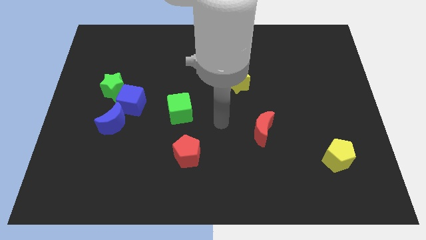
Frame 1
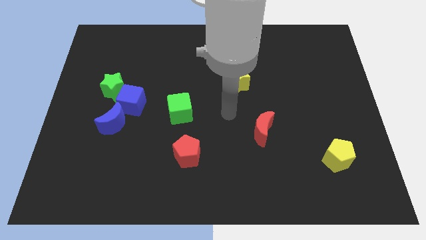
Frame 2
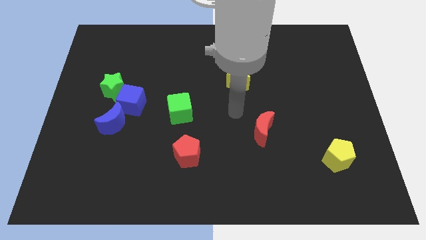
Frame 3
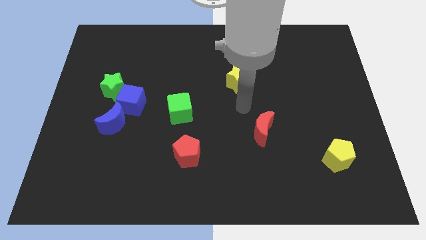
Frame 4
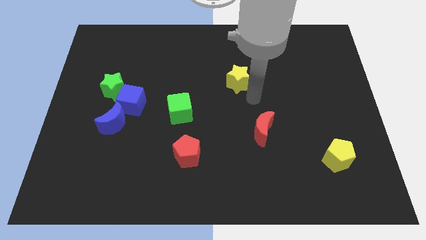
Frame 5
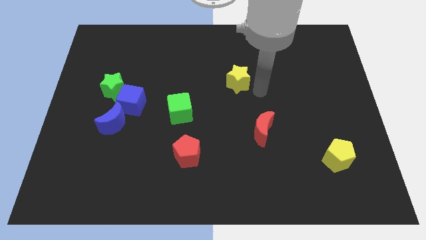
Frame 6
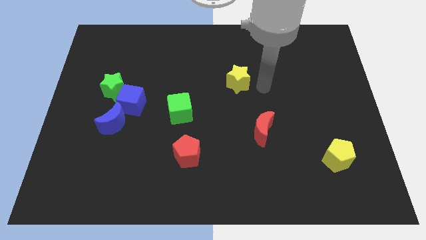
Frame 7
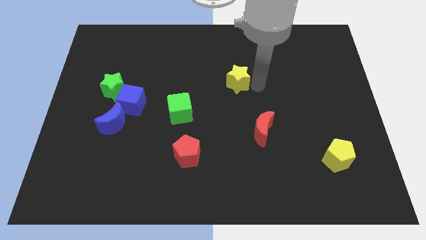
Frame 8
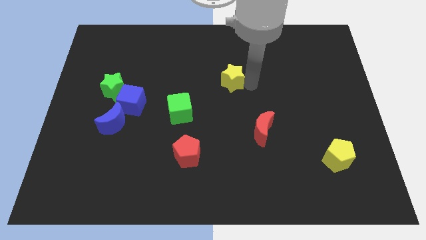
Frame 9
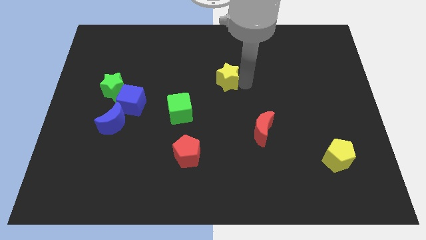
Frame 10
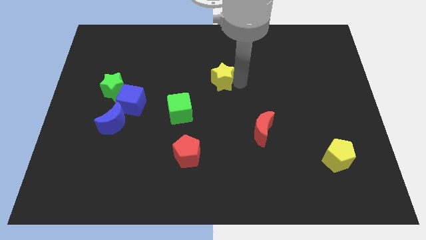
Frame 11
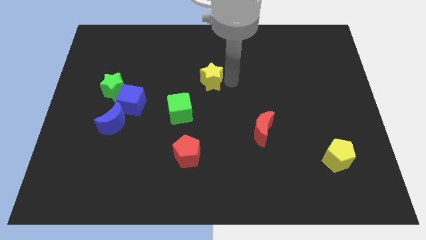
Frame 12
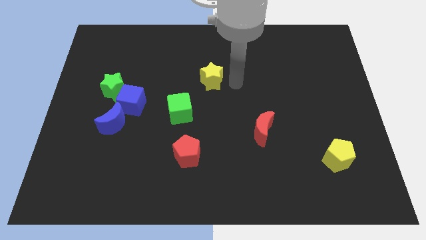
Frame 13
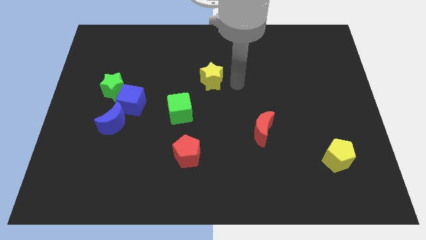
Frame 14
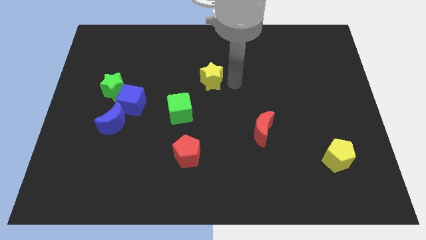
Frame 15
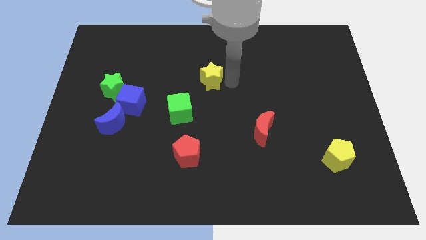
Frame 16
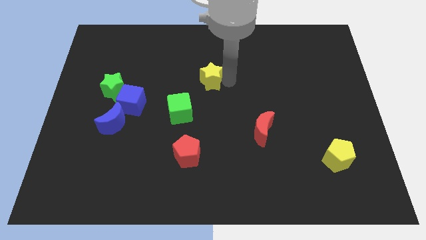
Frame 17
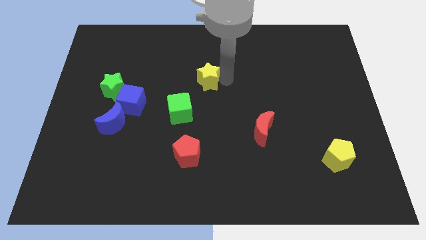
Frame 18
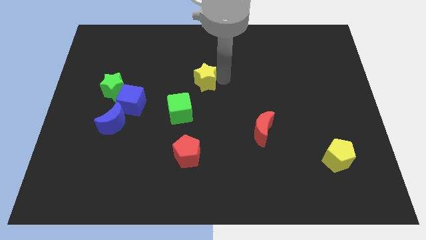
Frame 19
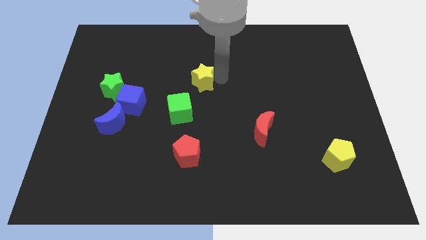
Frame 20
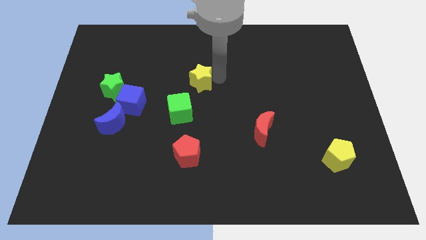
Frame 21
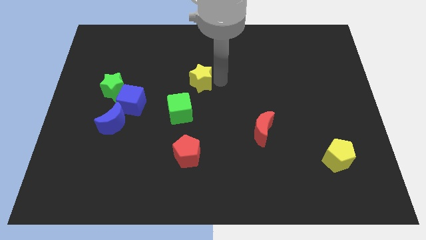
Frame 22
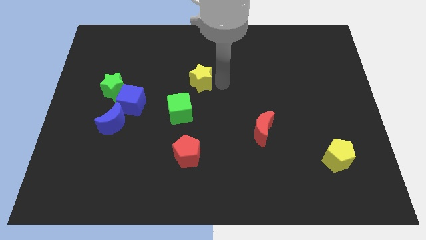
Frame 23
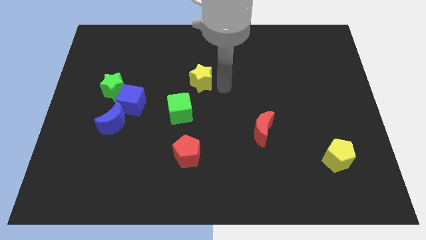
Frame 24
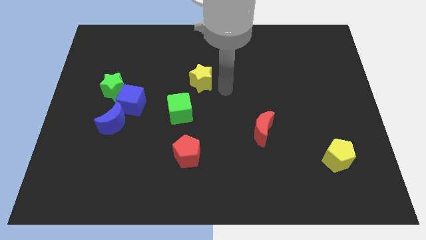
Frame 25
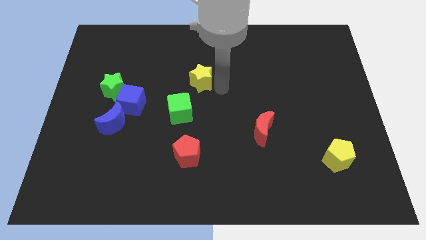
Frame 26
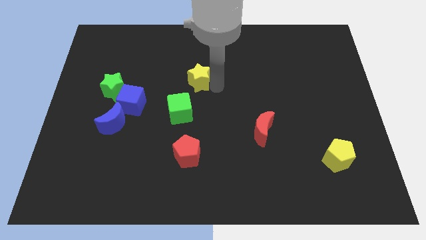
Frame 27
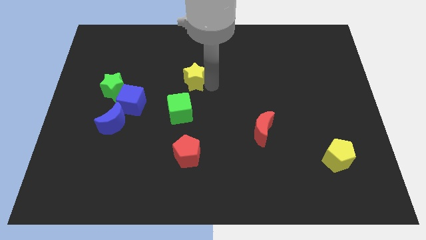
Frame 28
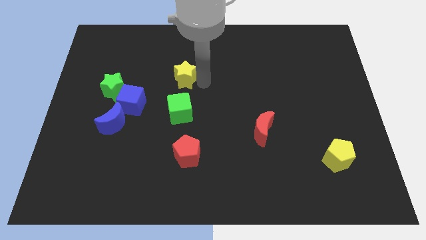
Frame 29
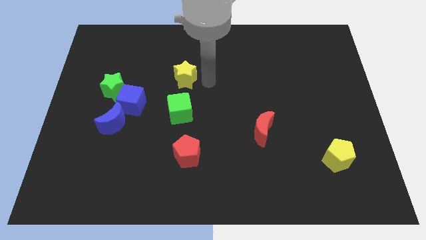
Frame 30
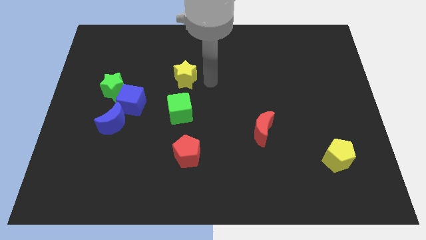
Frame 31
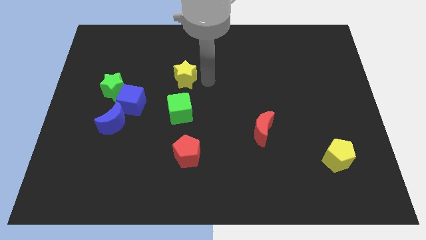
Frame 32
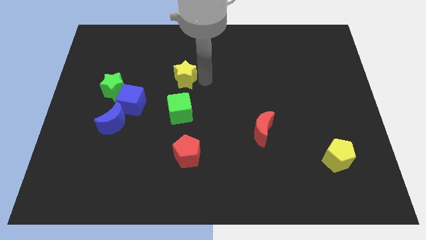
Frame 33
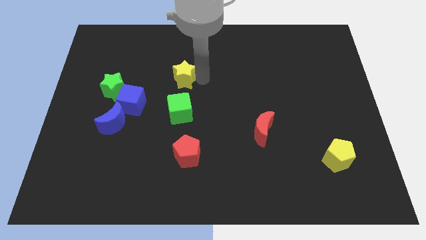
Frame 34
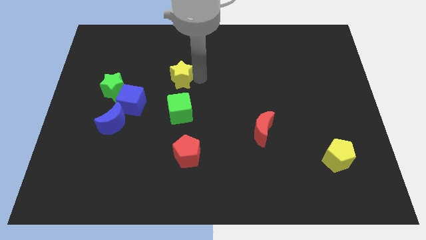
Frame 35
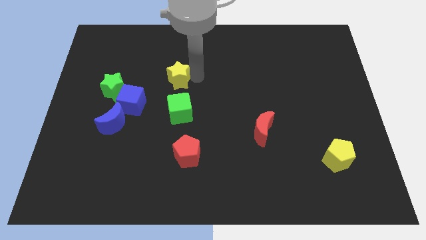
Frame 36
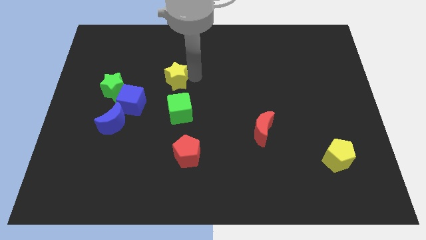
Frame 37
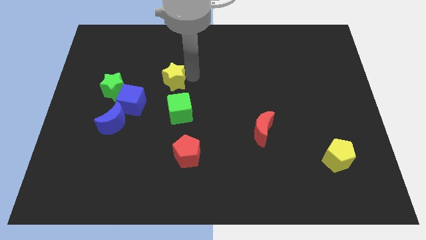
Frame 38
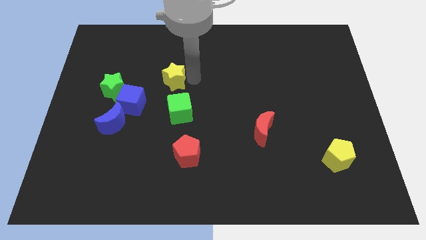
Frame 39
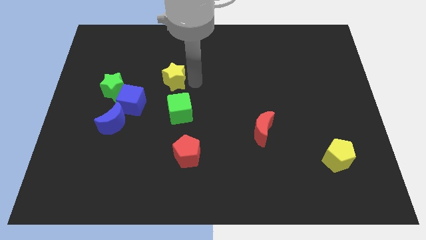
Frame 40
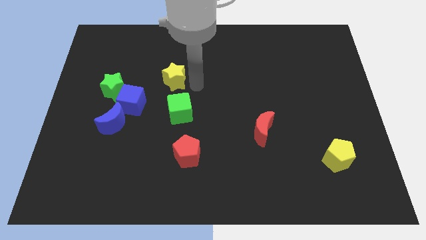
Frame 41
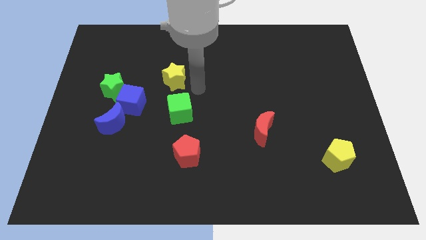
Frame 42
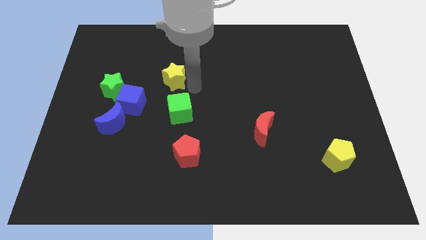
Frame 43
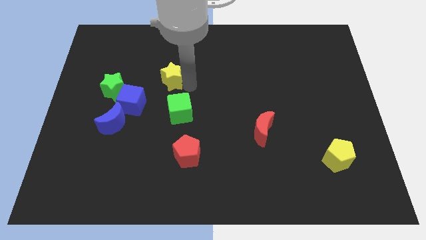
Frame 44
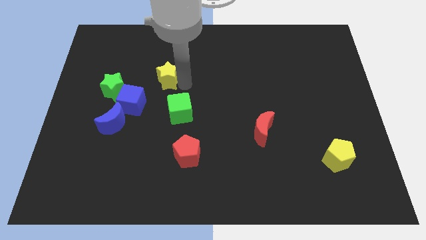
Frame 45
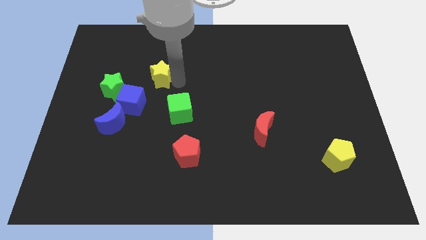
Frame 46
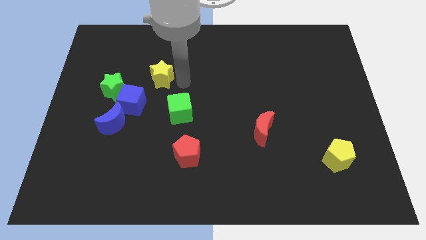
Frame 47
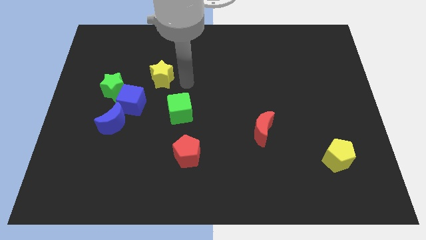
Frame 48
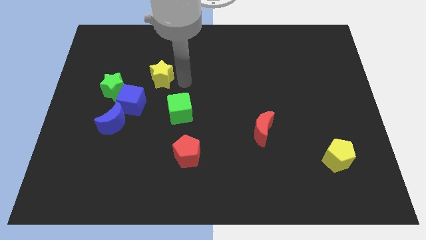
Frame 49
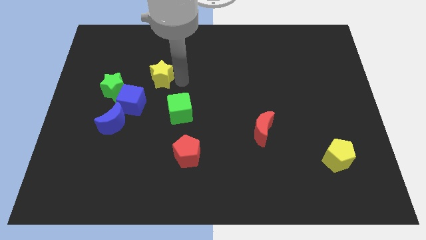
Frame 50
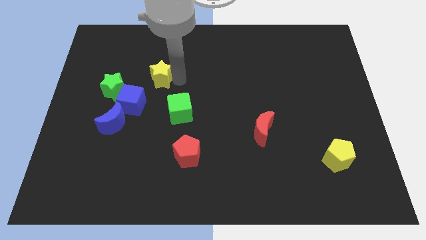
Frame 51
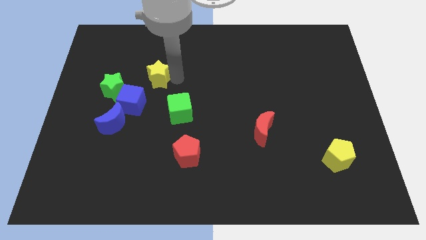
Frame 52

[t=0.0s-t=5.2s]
move the yellow star to the top right of the green star

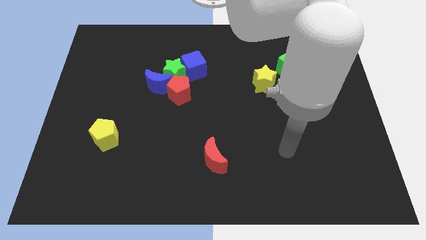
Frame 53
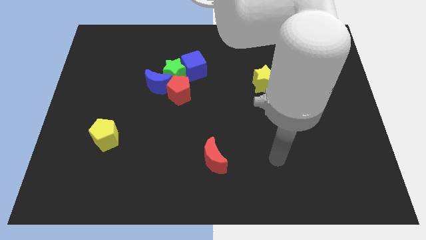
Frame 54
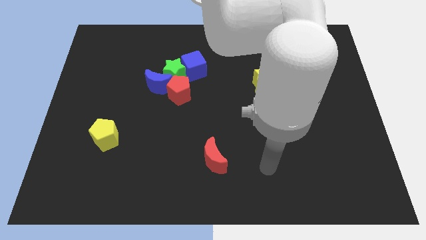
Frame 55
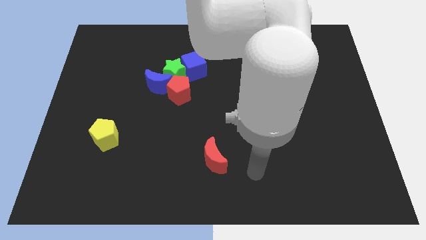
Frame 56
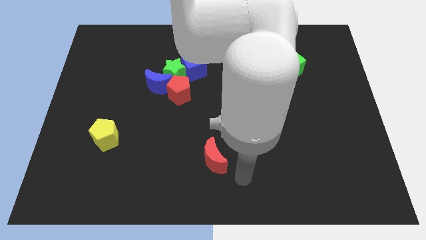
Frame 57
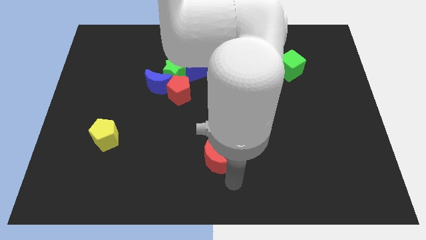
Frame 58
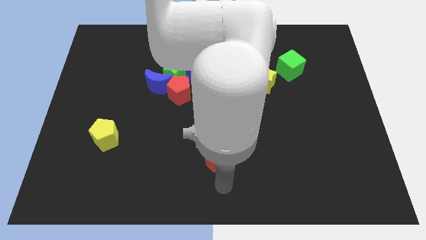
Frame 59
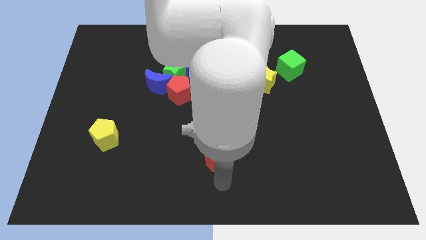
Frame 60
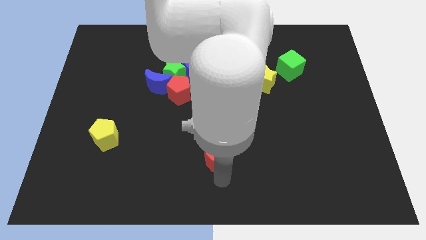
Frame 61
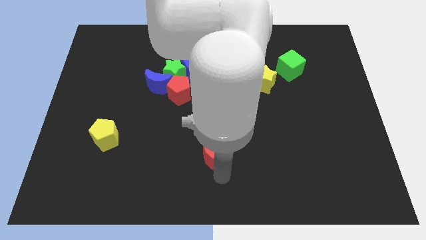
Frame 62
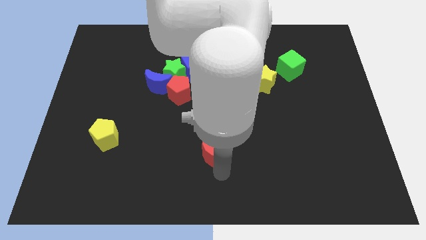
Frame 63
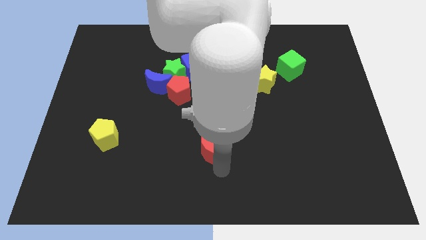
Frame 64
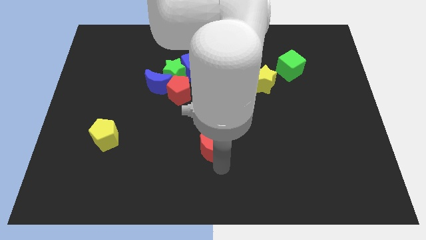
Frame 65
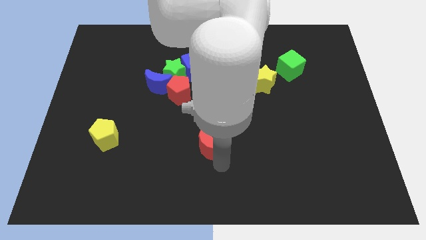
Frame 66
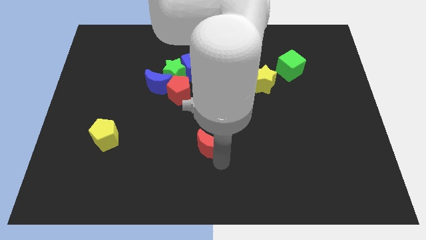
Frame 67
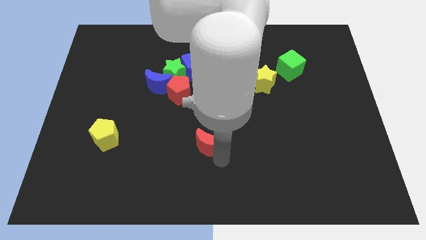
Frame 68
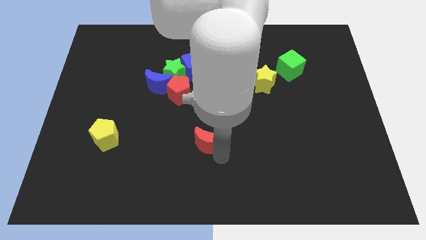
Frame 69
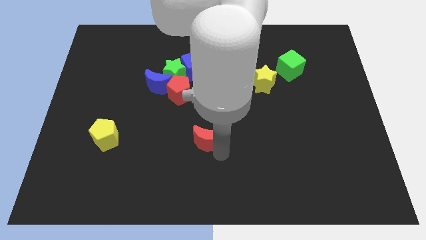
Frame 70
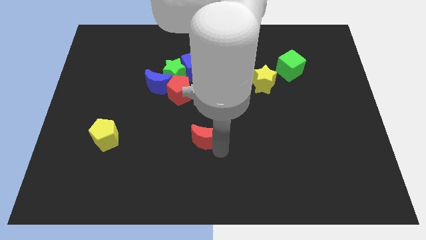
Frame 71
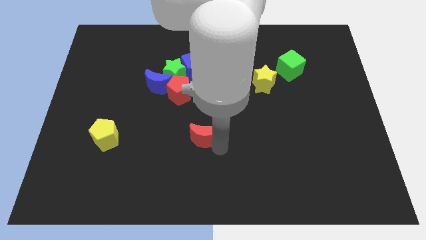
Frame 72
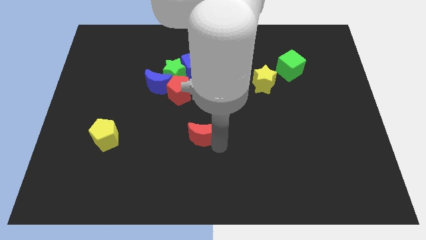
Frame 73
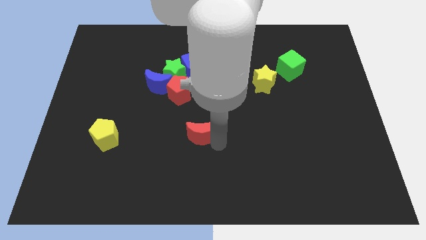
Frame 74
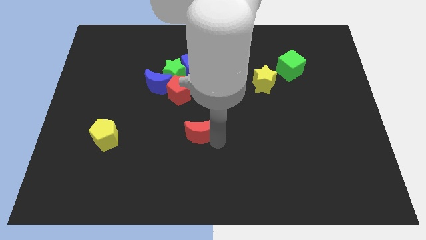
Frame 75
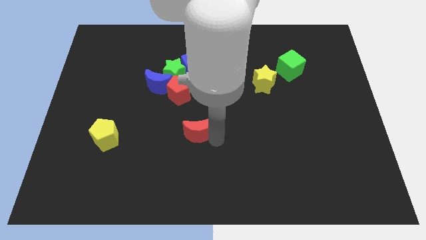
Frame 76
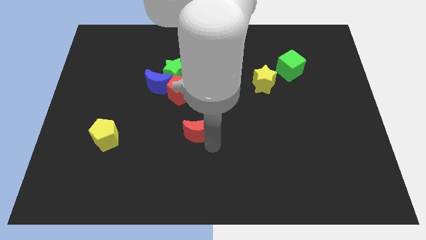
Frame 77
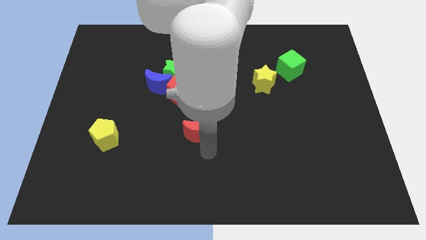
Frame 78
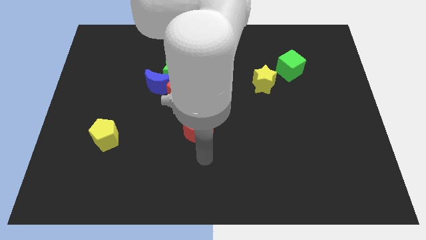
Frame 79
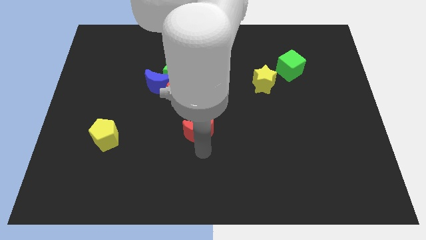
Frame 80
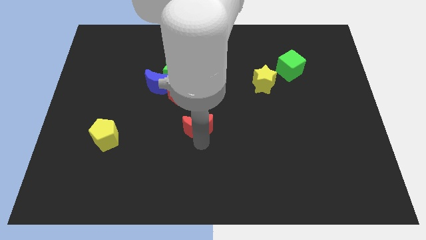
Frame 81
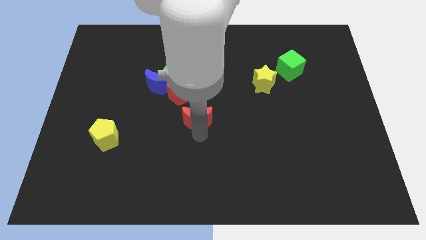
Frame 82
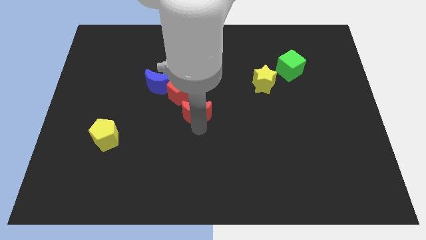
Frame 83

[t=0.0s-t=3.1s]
push the red moon to the bottom side of the blue cube
